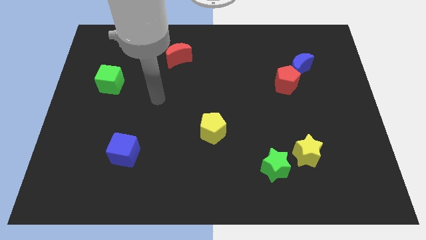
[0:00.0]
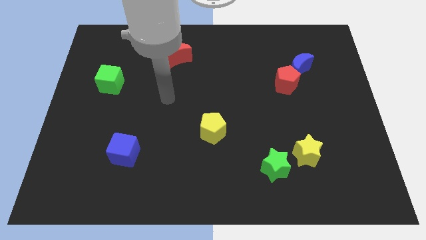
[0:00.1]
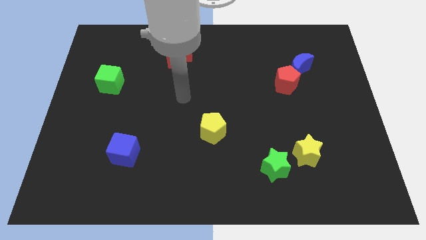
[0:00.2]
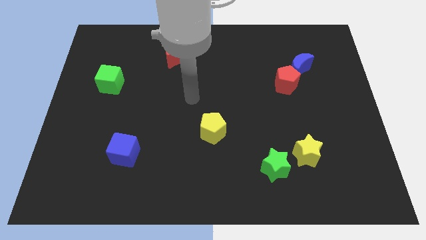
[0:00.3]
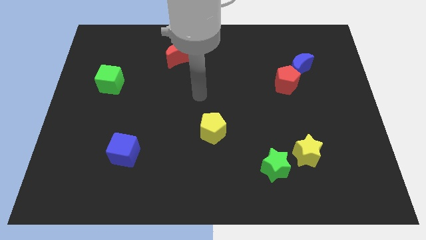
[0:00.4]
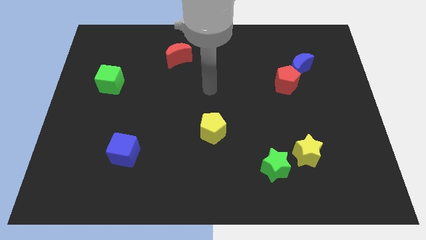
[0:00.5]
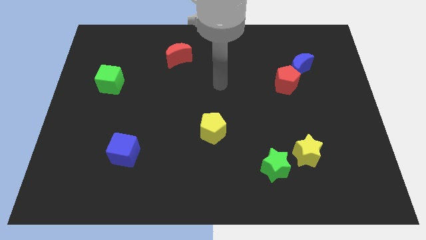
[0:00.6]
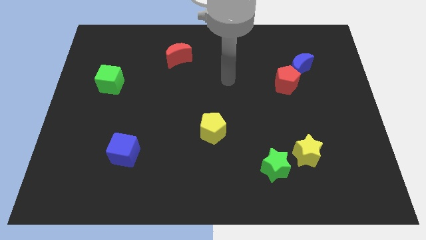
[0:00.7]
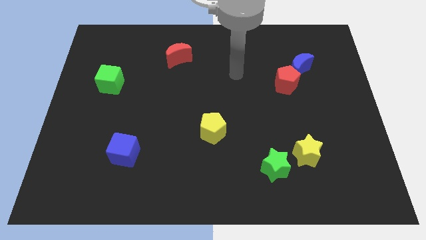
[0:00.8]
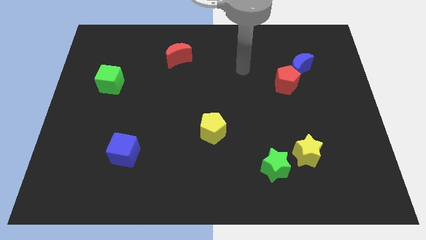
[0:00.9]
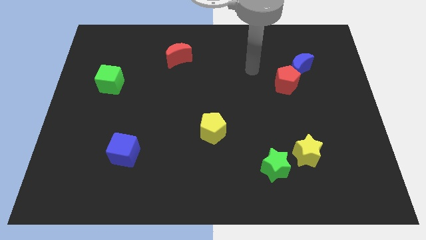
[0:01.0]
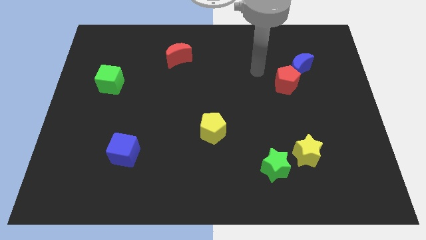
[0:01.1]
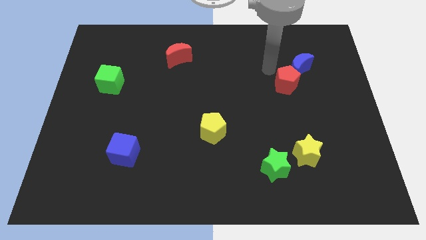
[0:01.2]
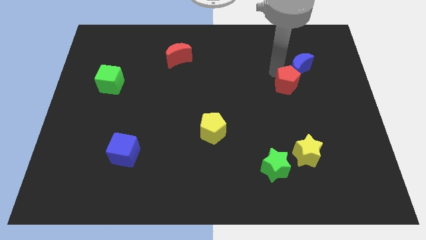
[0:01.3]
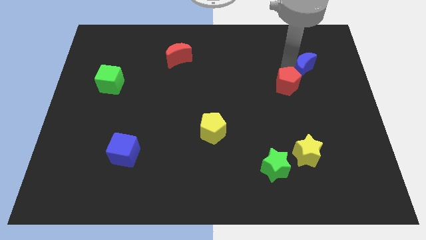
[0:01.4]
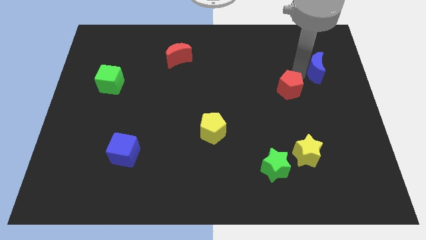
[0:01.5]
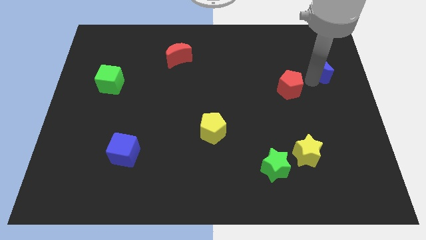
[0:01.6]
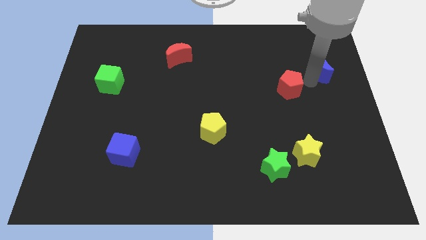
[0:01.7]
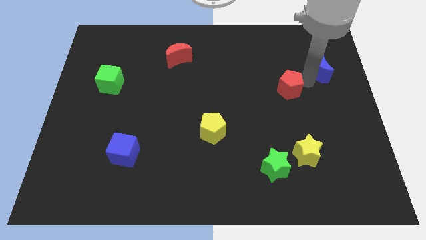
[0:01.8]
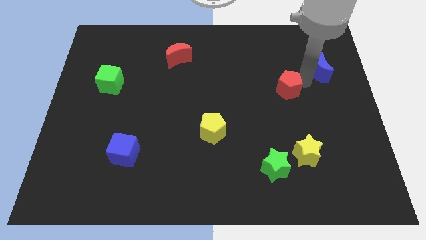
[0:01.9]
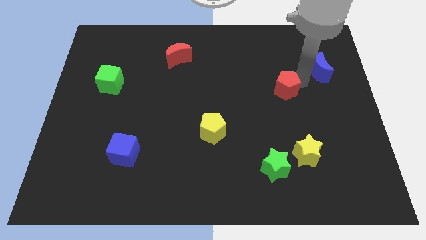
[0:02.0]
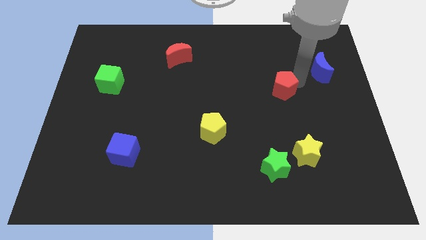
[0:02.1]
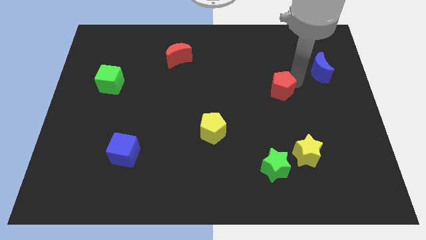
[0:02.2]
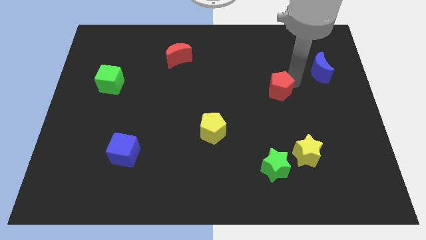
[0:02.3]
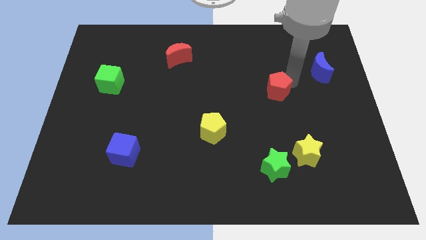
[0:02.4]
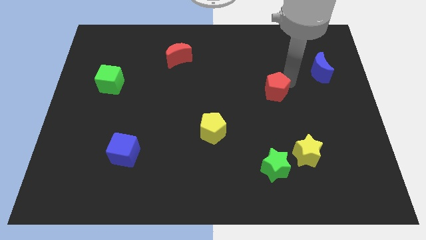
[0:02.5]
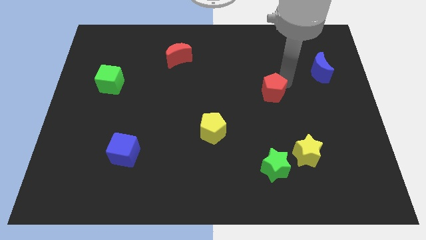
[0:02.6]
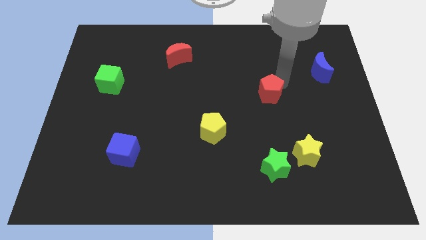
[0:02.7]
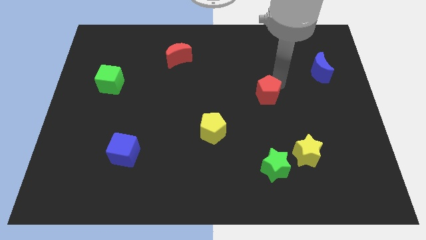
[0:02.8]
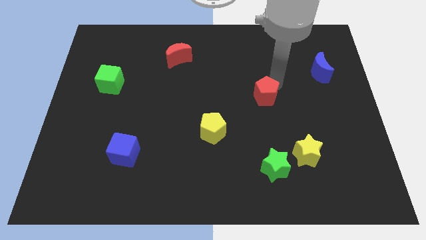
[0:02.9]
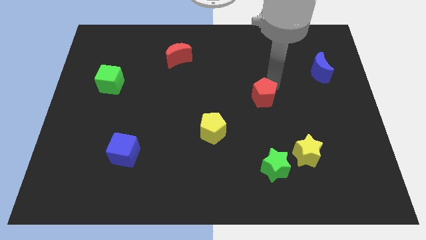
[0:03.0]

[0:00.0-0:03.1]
slide the red pentagon down and then left a little

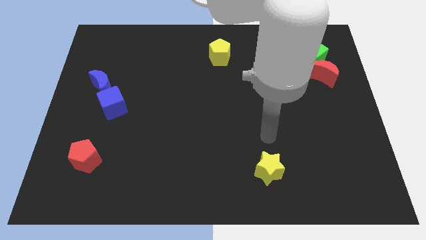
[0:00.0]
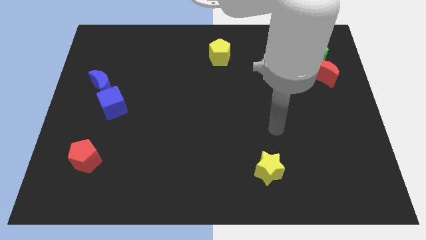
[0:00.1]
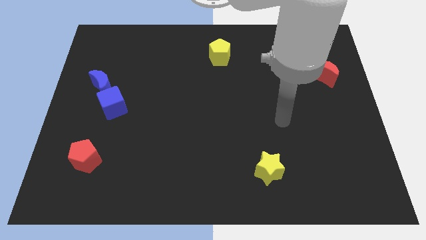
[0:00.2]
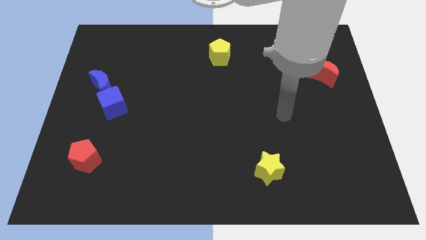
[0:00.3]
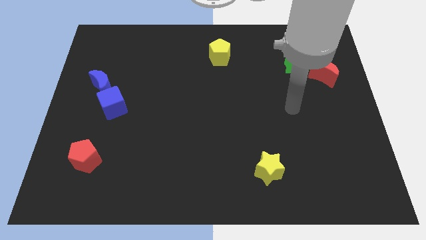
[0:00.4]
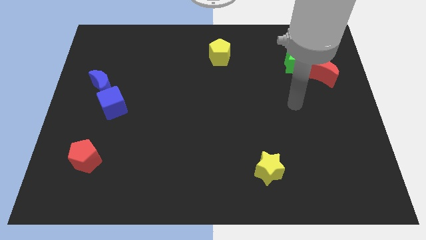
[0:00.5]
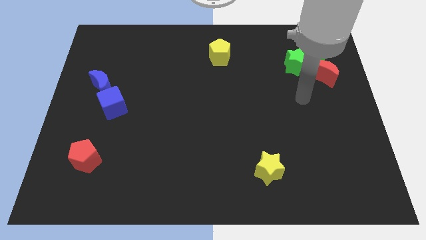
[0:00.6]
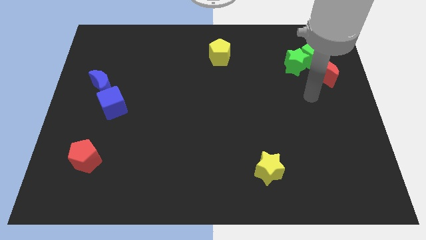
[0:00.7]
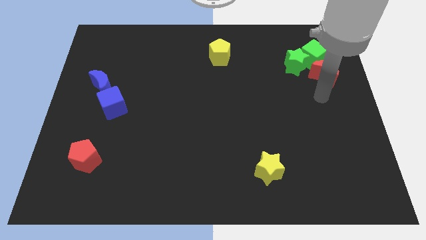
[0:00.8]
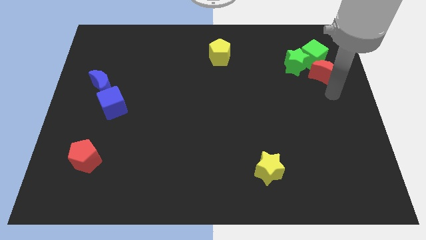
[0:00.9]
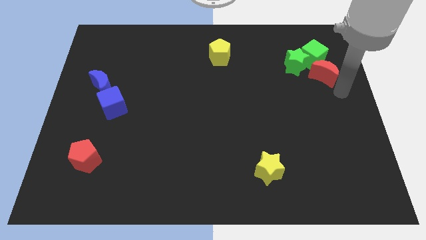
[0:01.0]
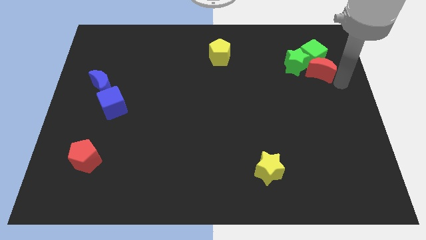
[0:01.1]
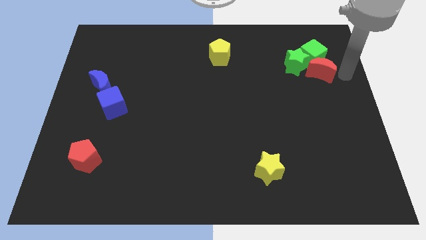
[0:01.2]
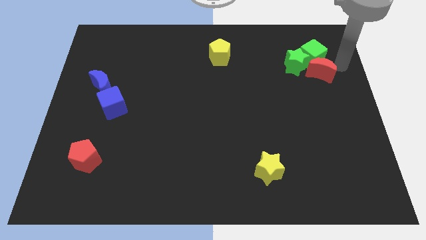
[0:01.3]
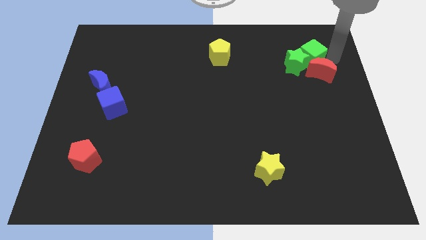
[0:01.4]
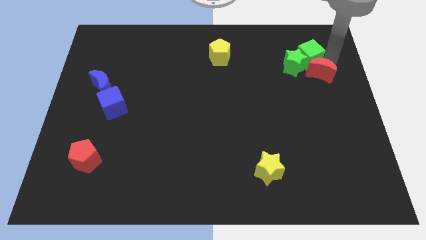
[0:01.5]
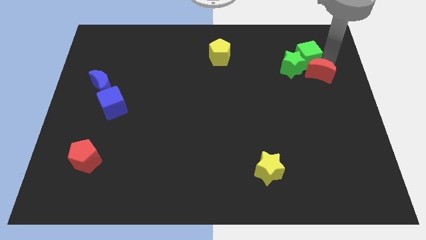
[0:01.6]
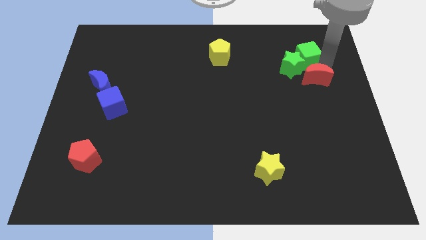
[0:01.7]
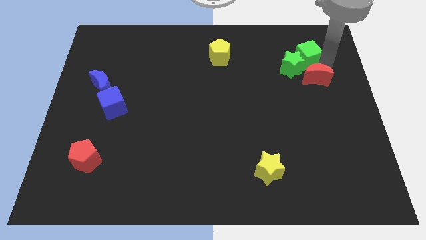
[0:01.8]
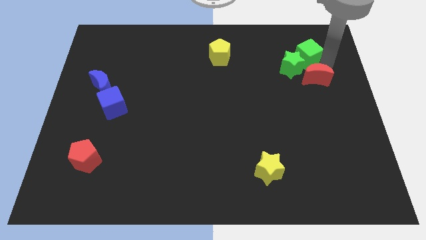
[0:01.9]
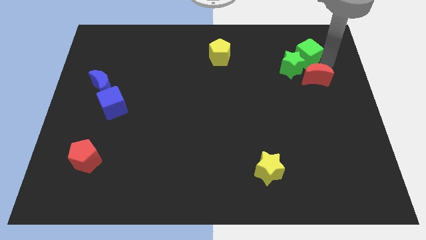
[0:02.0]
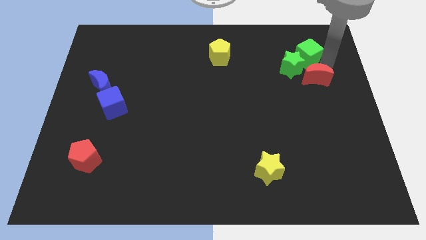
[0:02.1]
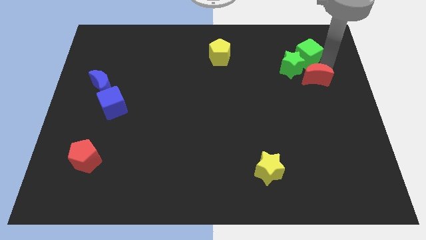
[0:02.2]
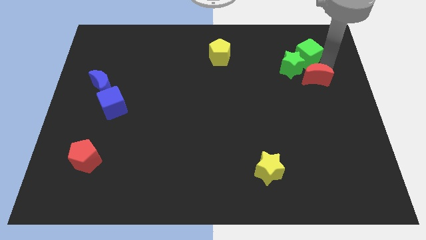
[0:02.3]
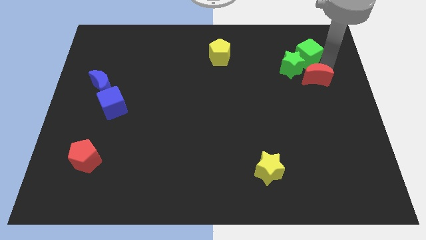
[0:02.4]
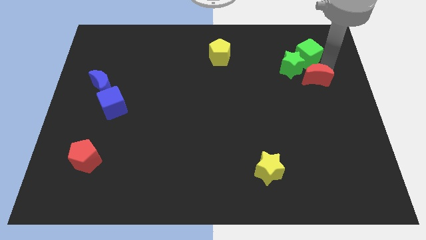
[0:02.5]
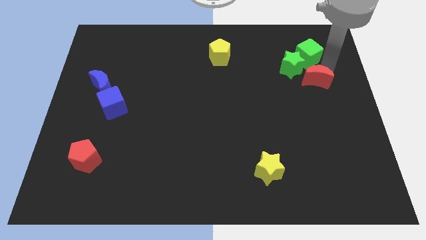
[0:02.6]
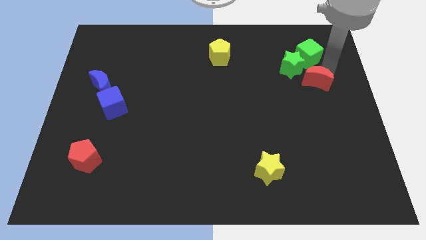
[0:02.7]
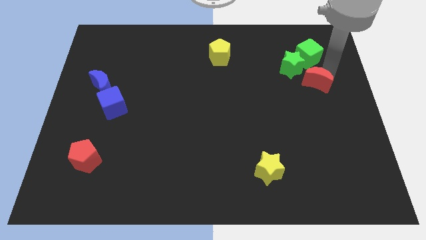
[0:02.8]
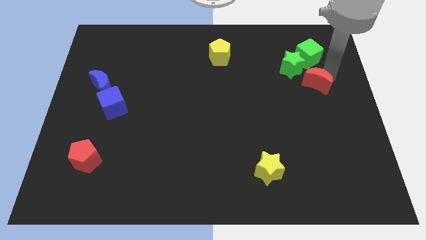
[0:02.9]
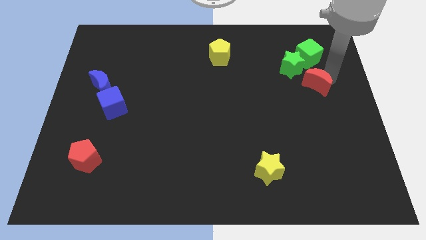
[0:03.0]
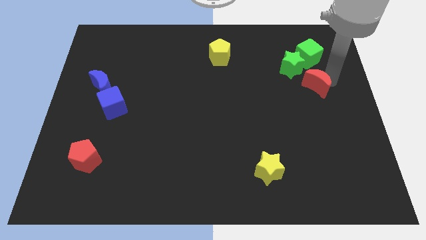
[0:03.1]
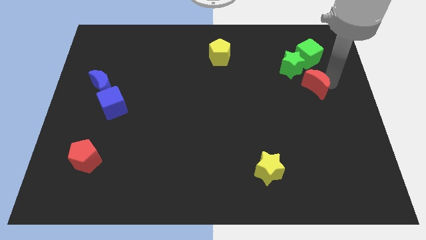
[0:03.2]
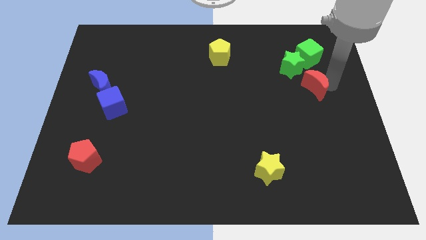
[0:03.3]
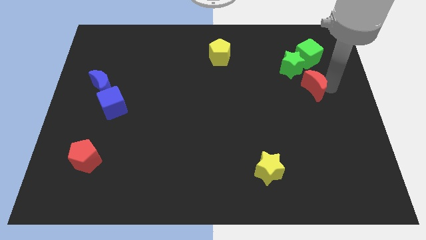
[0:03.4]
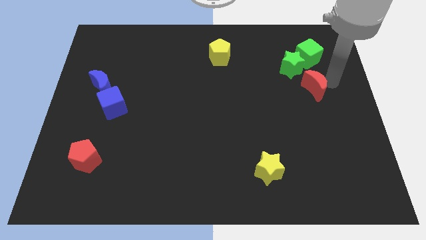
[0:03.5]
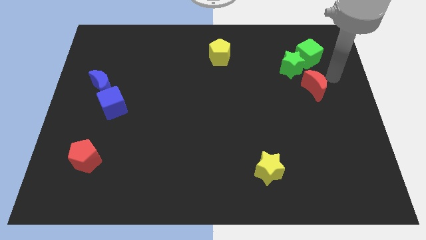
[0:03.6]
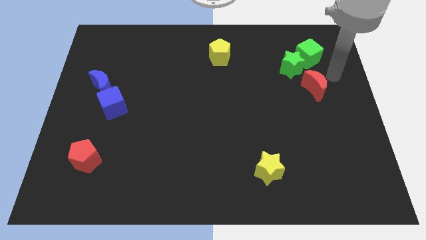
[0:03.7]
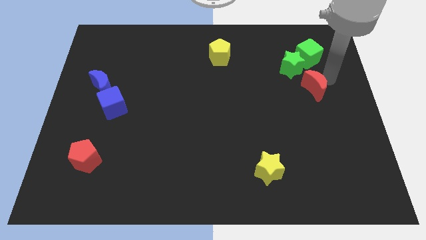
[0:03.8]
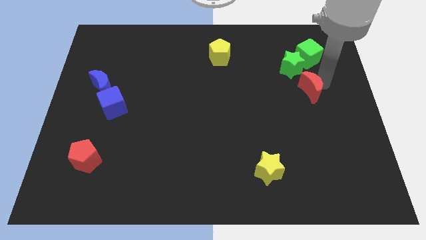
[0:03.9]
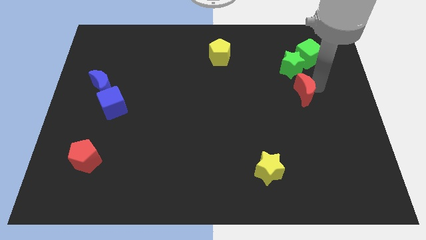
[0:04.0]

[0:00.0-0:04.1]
move the red moon down and then left a bit

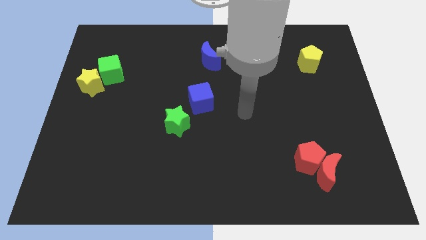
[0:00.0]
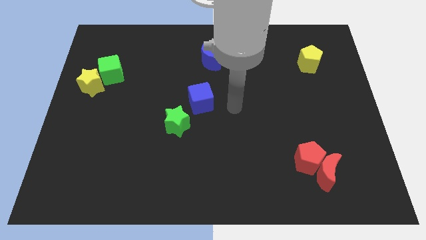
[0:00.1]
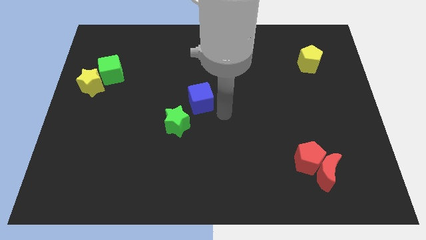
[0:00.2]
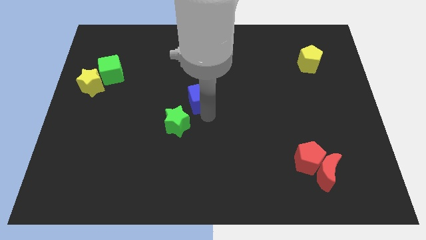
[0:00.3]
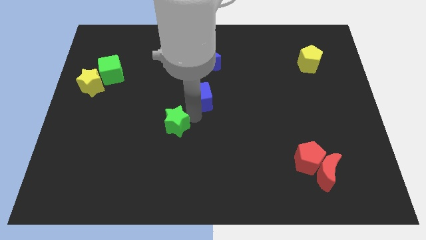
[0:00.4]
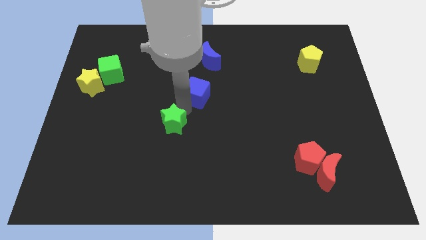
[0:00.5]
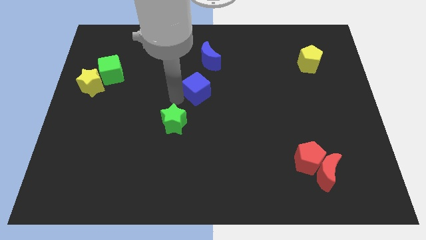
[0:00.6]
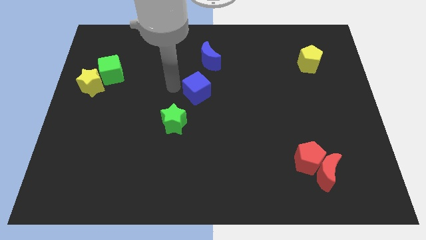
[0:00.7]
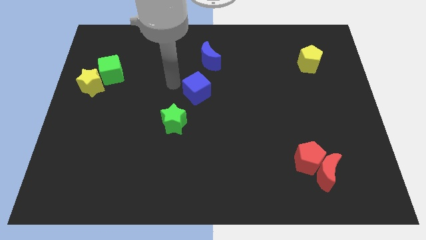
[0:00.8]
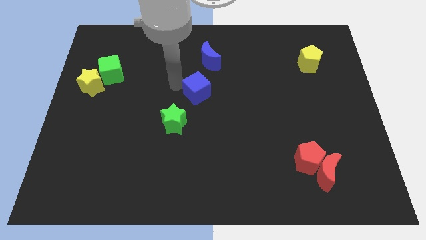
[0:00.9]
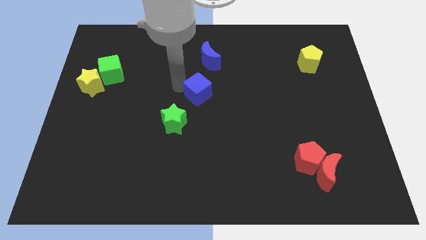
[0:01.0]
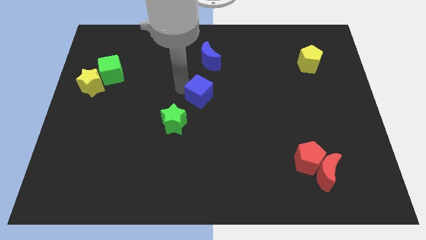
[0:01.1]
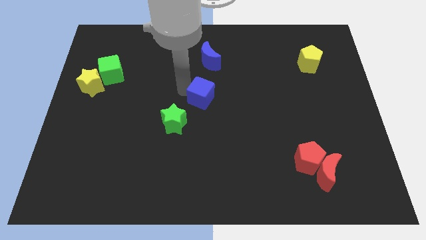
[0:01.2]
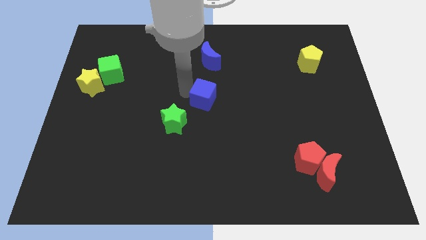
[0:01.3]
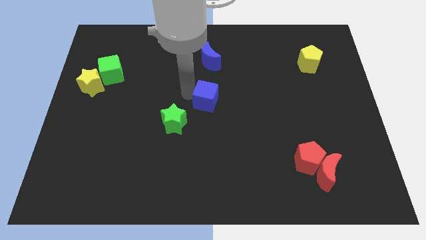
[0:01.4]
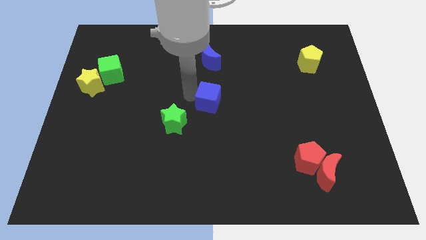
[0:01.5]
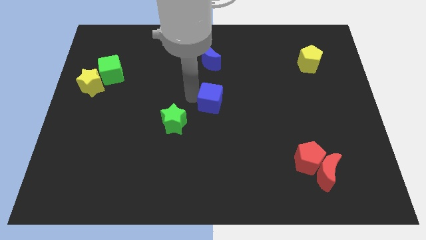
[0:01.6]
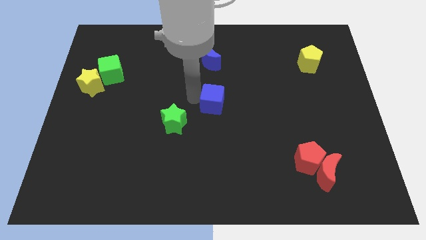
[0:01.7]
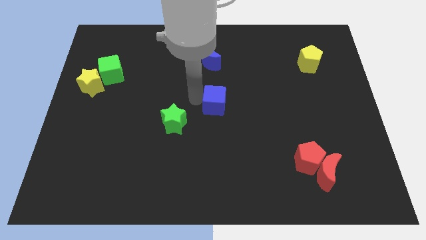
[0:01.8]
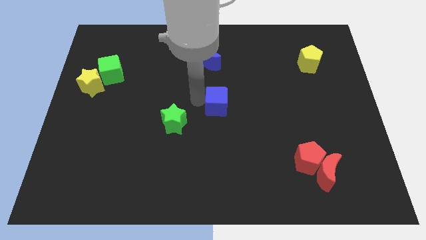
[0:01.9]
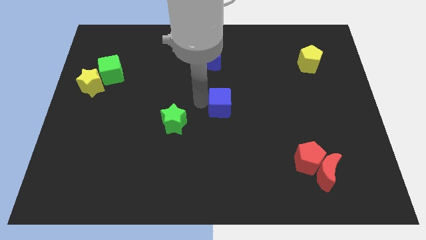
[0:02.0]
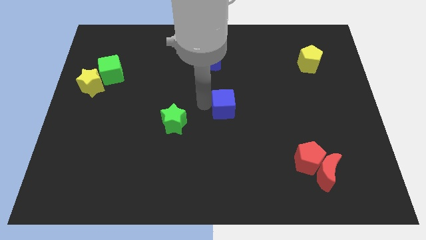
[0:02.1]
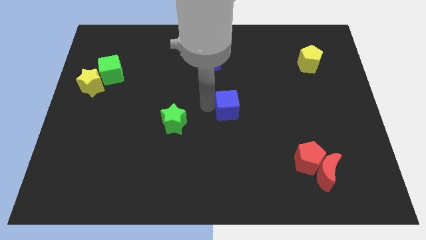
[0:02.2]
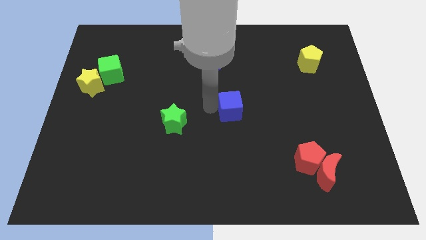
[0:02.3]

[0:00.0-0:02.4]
slightly move the blue cube to the right
